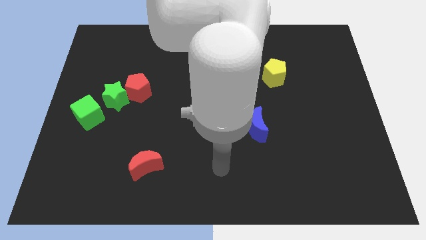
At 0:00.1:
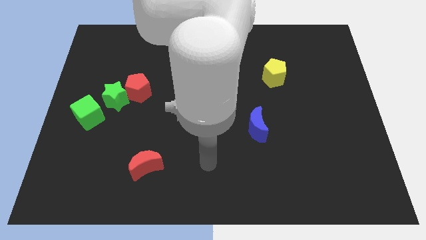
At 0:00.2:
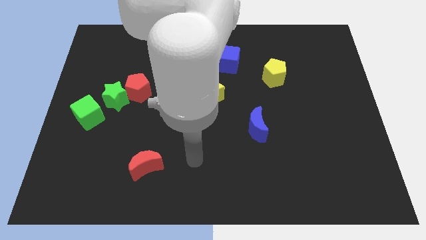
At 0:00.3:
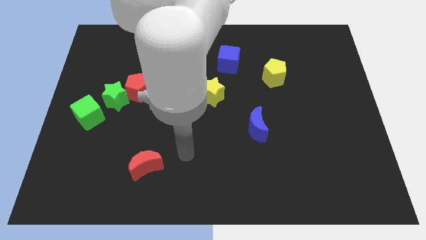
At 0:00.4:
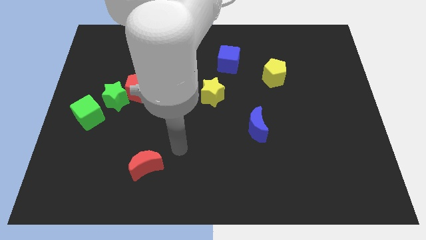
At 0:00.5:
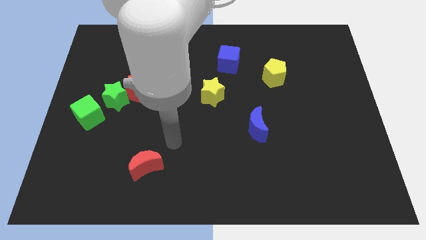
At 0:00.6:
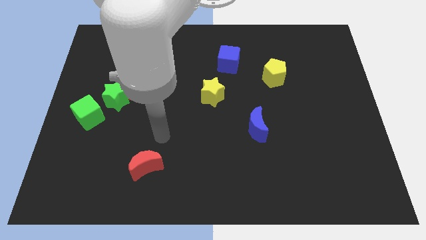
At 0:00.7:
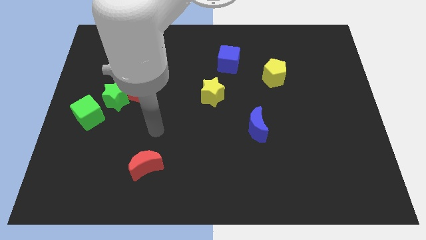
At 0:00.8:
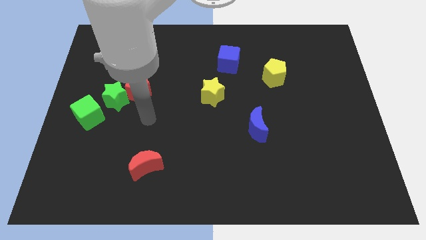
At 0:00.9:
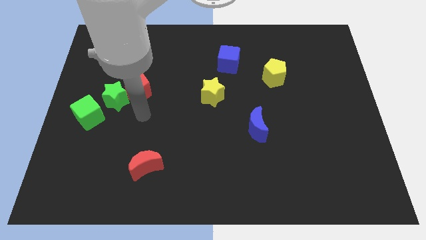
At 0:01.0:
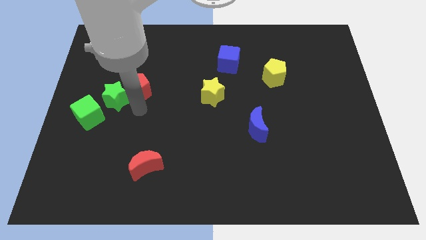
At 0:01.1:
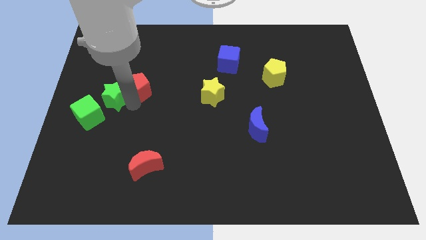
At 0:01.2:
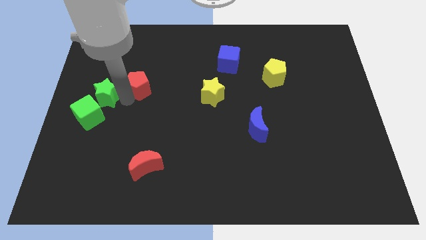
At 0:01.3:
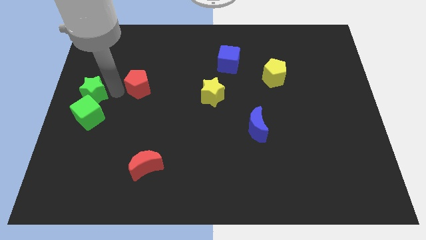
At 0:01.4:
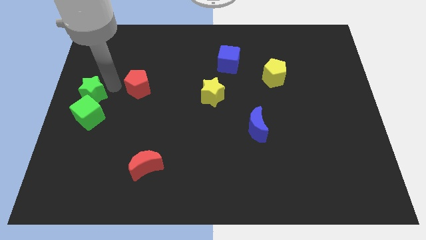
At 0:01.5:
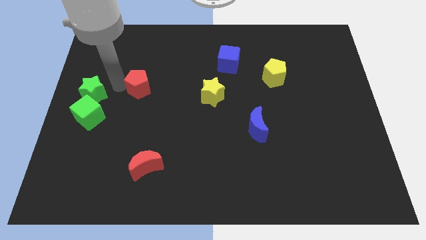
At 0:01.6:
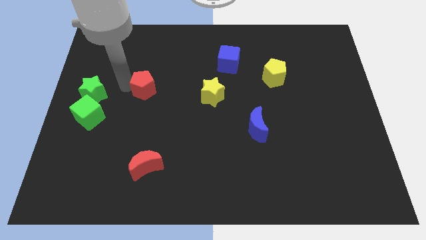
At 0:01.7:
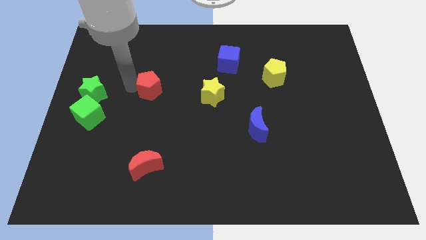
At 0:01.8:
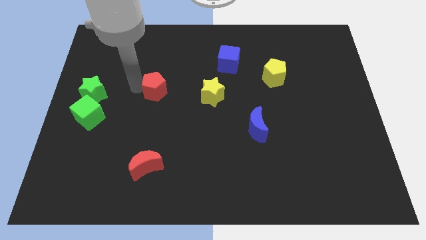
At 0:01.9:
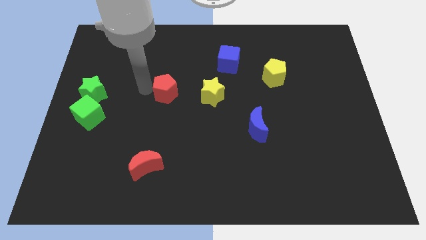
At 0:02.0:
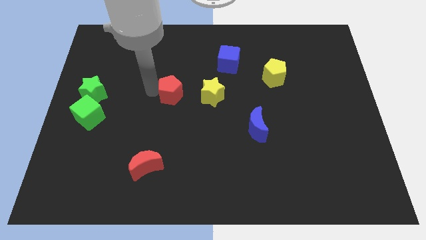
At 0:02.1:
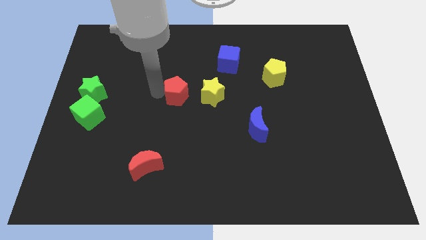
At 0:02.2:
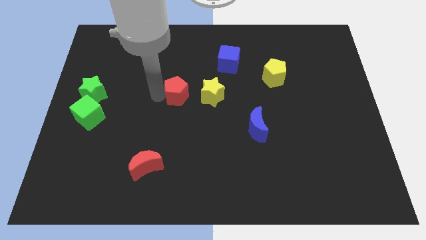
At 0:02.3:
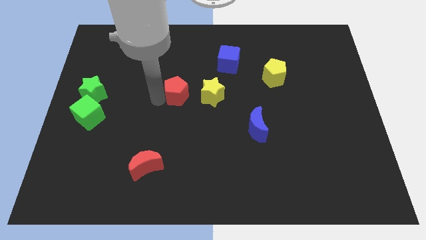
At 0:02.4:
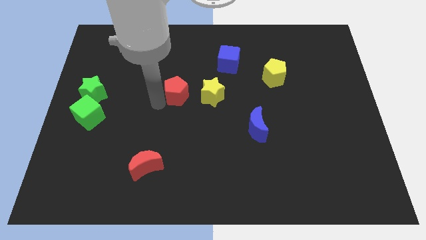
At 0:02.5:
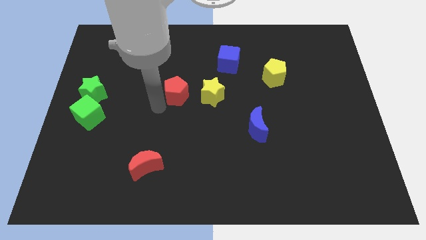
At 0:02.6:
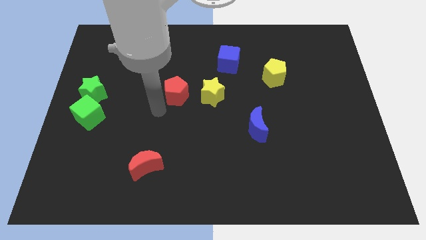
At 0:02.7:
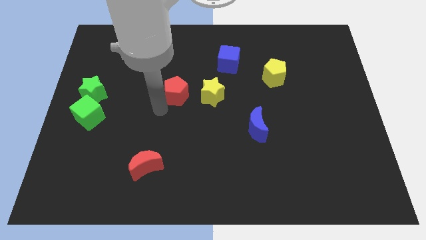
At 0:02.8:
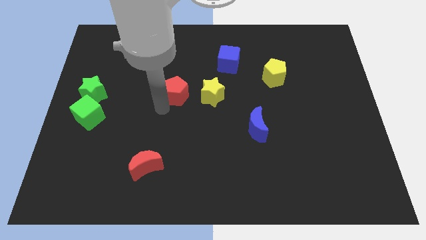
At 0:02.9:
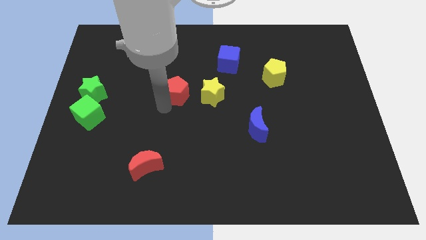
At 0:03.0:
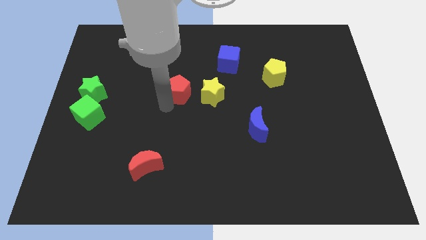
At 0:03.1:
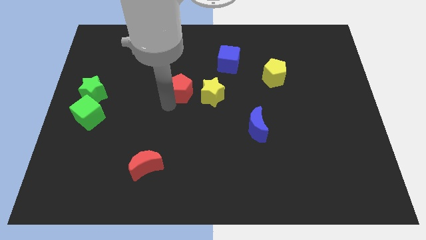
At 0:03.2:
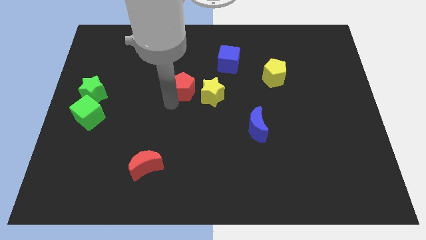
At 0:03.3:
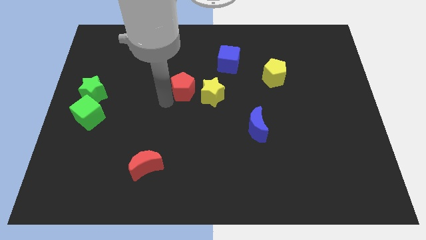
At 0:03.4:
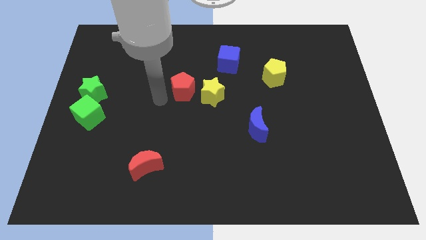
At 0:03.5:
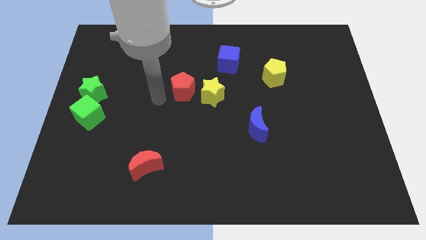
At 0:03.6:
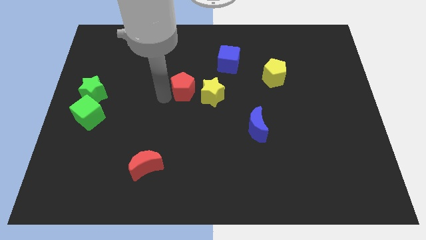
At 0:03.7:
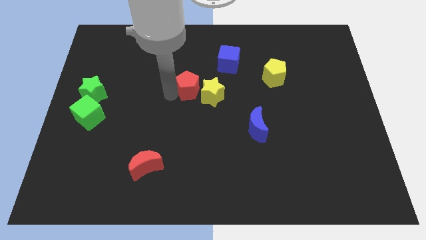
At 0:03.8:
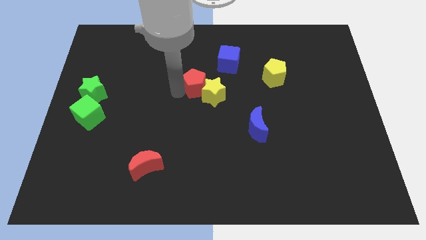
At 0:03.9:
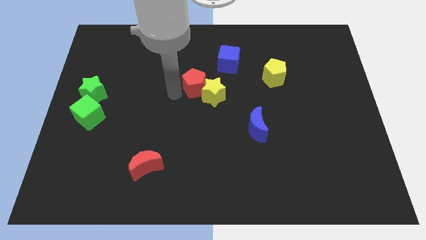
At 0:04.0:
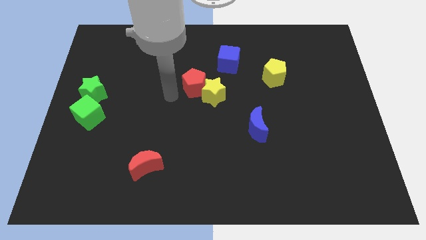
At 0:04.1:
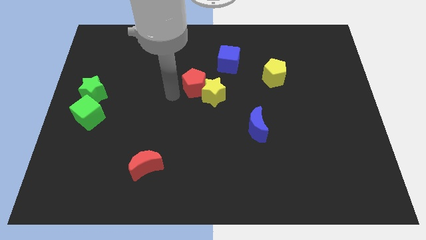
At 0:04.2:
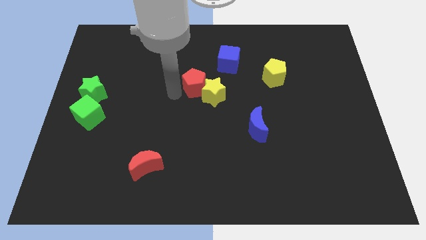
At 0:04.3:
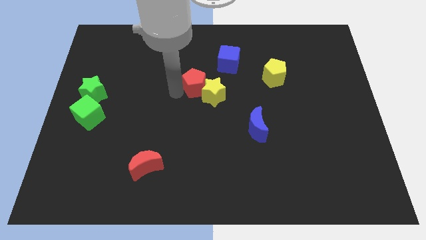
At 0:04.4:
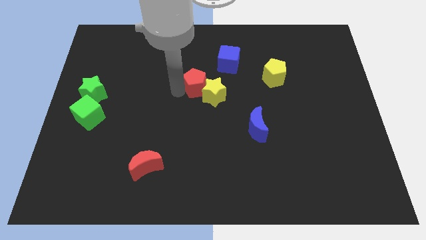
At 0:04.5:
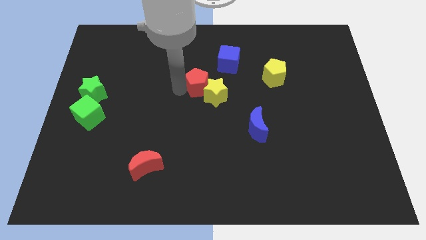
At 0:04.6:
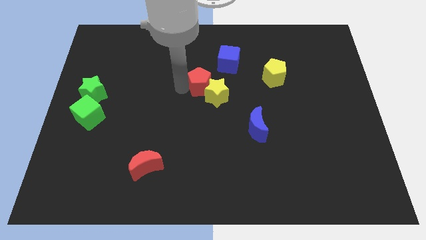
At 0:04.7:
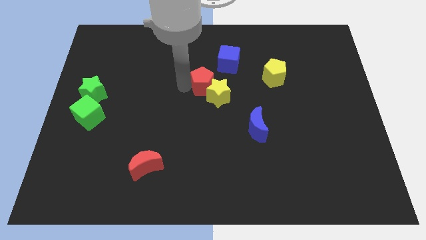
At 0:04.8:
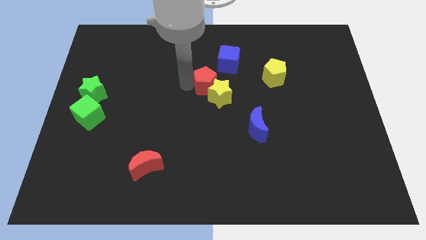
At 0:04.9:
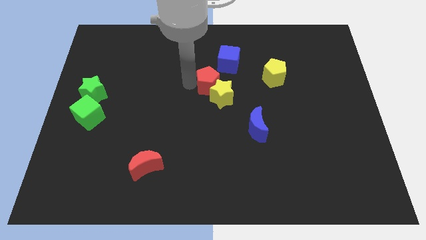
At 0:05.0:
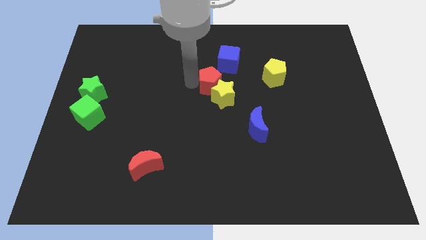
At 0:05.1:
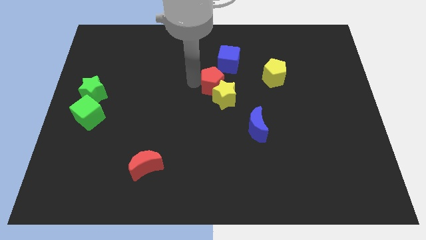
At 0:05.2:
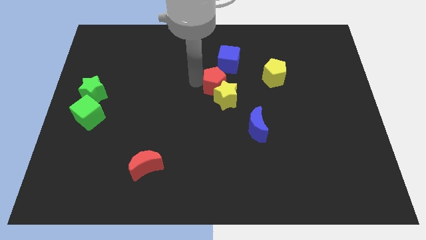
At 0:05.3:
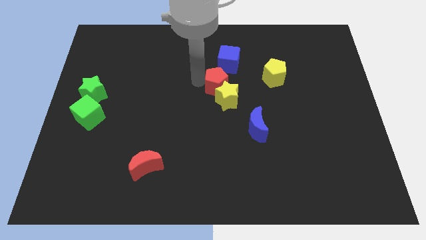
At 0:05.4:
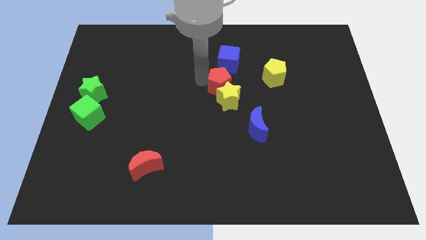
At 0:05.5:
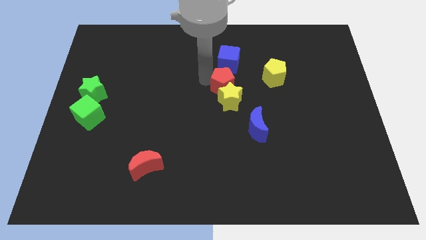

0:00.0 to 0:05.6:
move the red pentagon to the right

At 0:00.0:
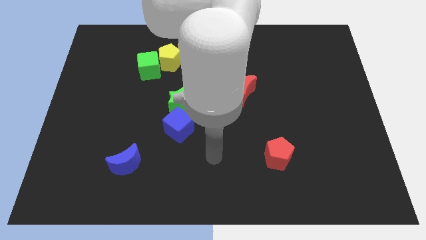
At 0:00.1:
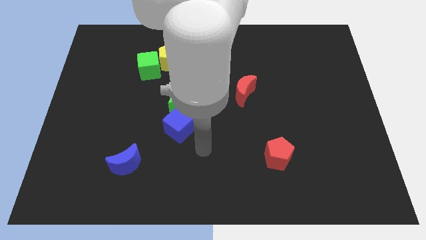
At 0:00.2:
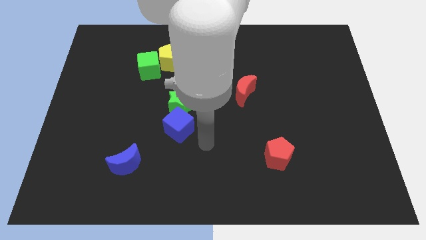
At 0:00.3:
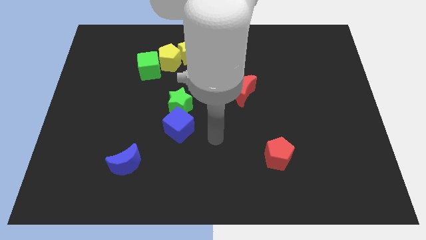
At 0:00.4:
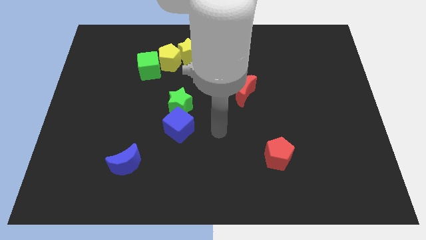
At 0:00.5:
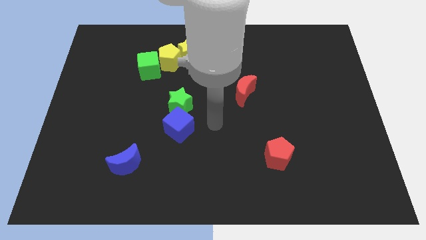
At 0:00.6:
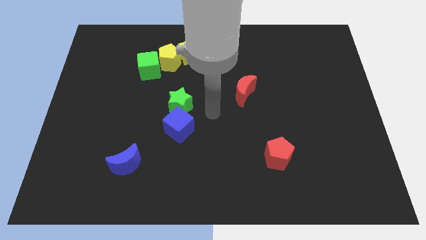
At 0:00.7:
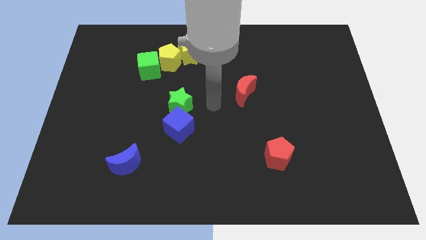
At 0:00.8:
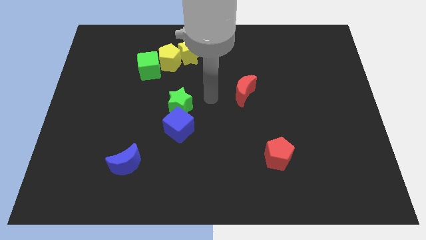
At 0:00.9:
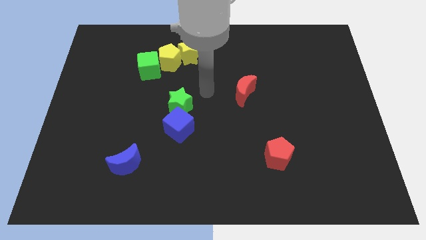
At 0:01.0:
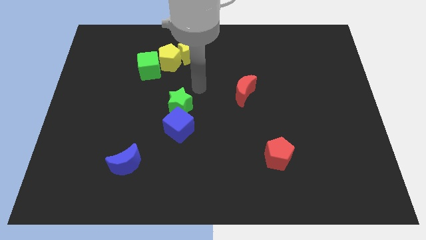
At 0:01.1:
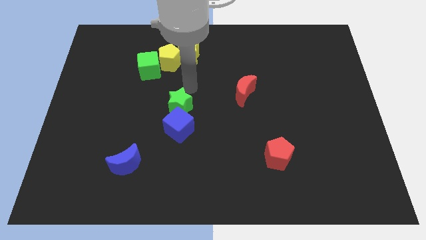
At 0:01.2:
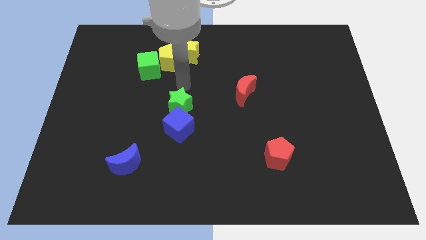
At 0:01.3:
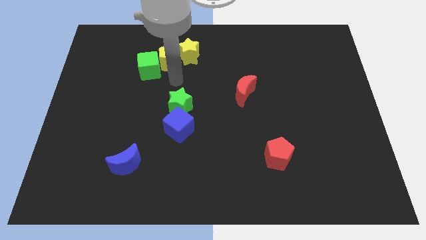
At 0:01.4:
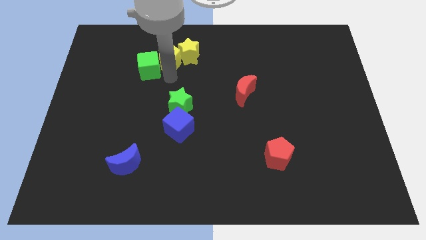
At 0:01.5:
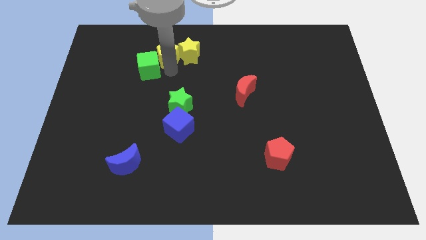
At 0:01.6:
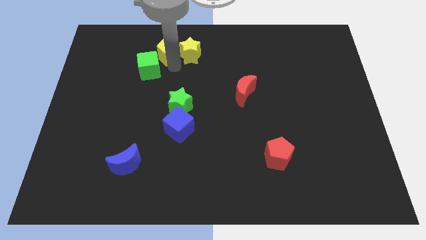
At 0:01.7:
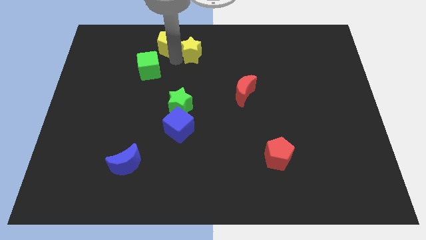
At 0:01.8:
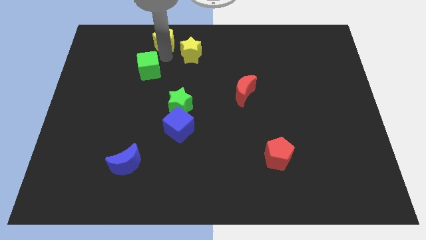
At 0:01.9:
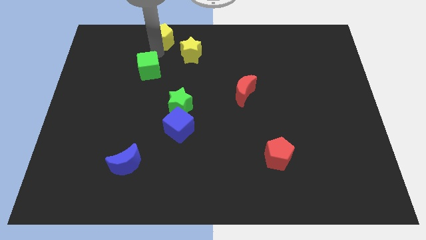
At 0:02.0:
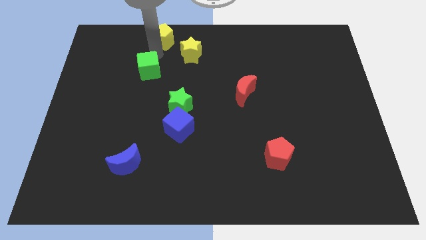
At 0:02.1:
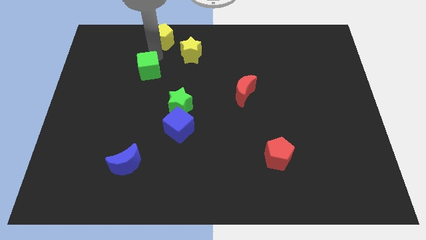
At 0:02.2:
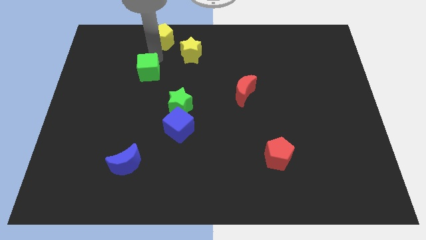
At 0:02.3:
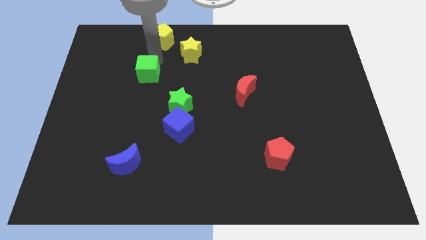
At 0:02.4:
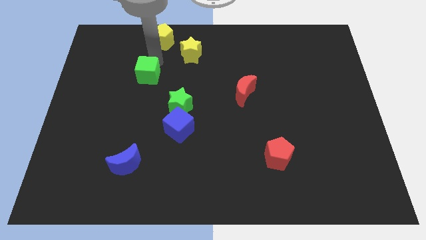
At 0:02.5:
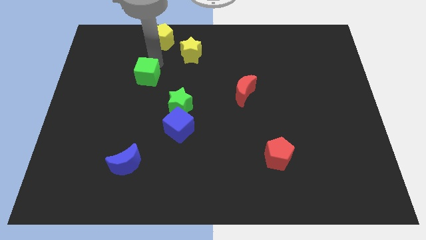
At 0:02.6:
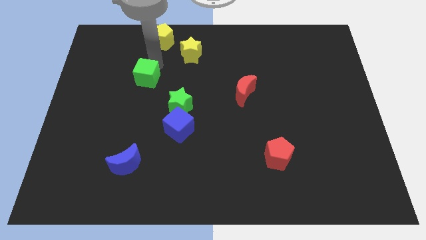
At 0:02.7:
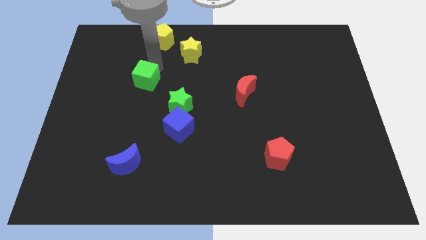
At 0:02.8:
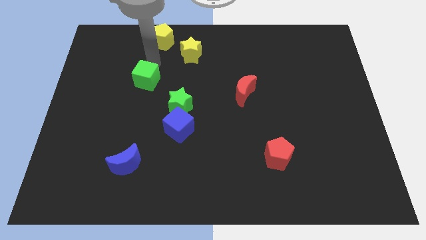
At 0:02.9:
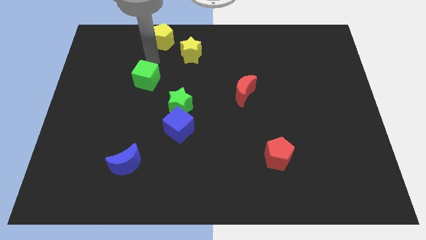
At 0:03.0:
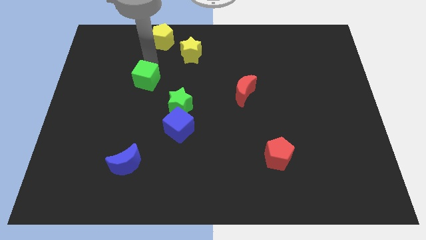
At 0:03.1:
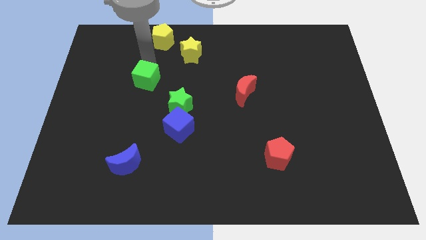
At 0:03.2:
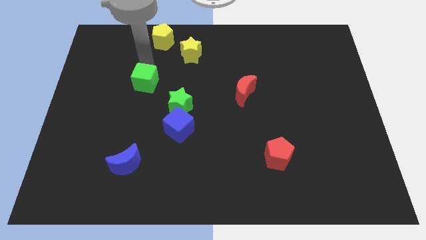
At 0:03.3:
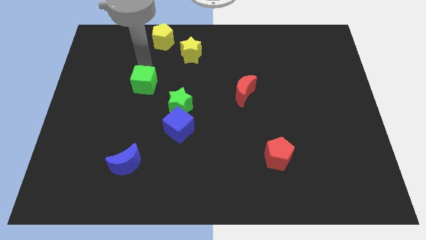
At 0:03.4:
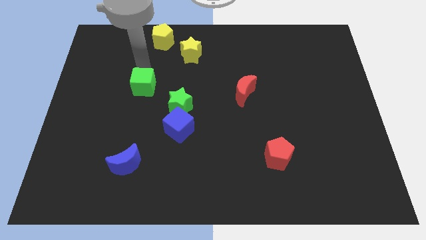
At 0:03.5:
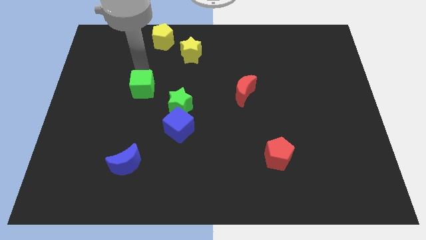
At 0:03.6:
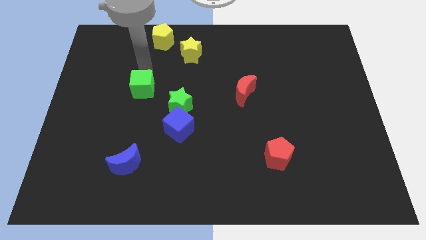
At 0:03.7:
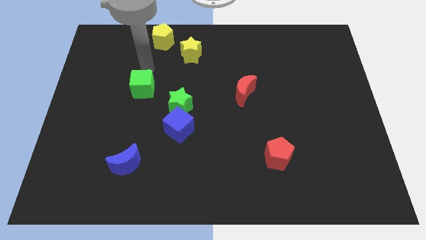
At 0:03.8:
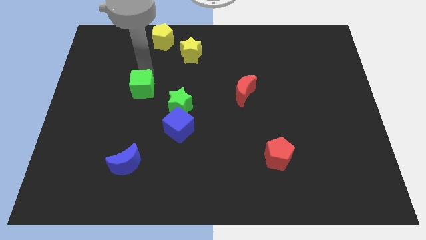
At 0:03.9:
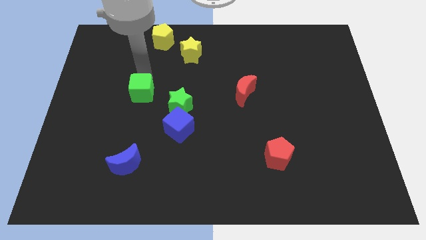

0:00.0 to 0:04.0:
move the green cube downwards somewhat
